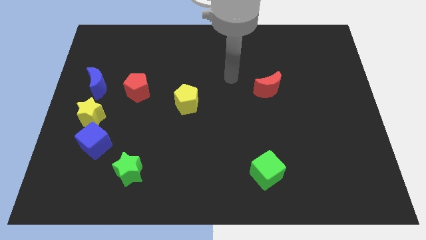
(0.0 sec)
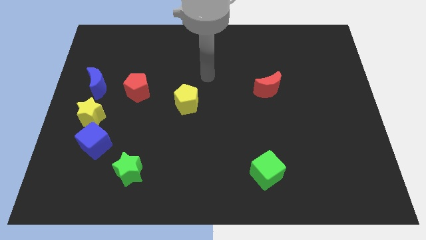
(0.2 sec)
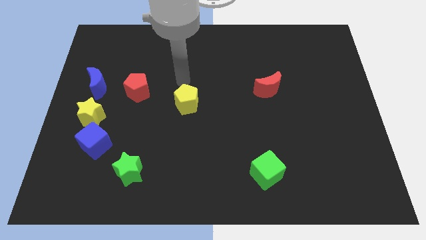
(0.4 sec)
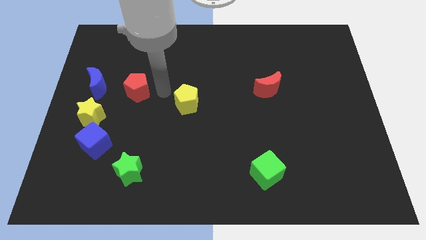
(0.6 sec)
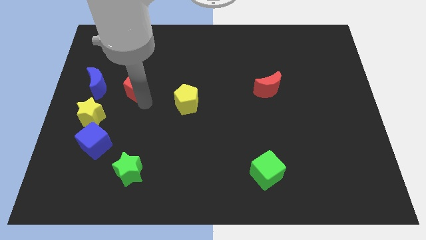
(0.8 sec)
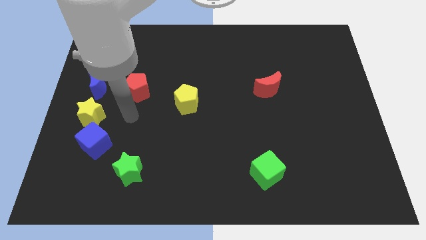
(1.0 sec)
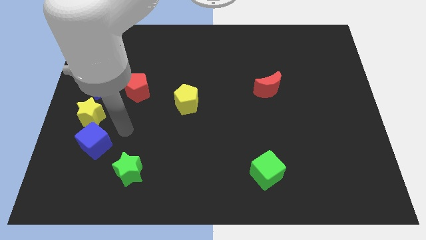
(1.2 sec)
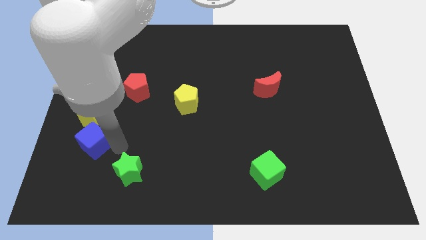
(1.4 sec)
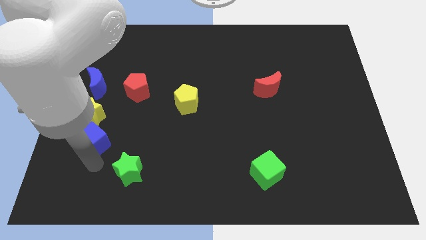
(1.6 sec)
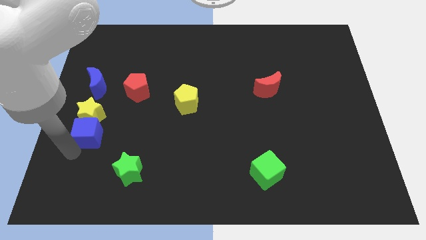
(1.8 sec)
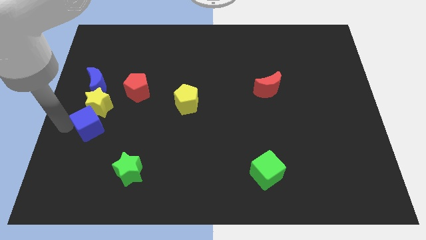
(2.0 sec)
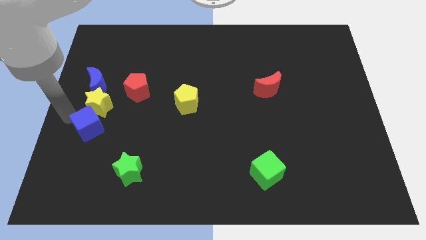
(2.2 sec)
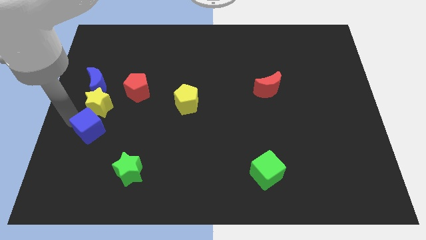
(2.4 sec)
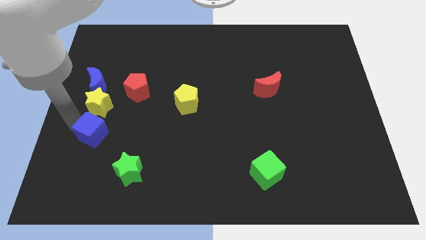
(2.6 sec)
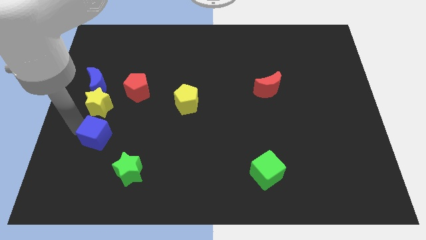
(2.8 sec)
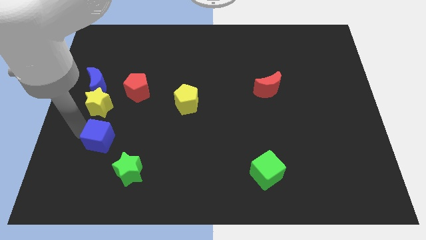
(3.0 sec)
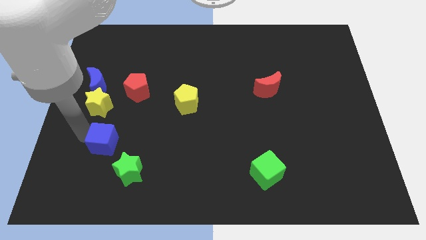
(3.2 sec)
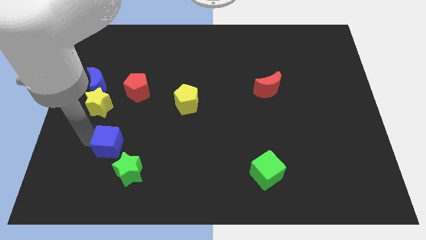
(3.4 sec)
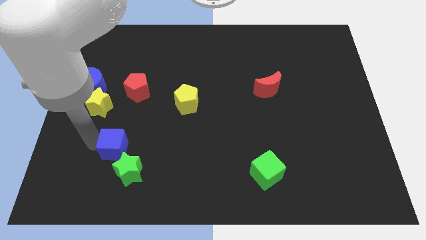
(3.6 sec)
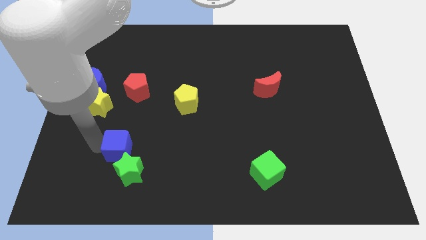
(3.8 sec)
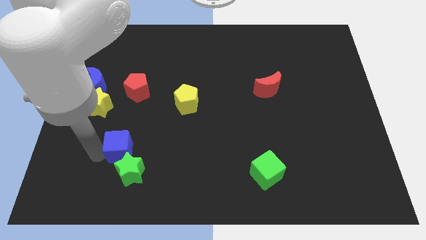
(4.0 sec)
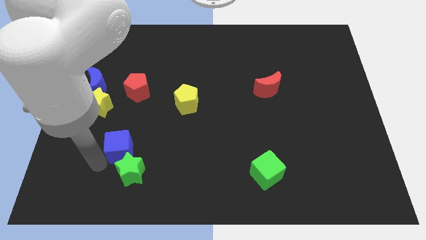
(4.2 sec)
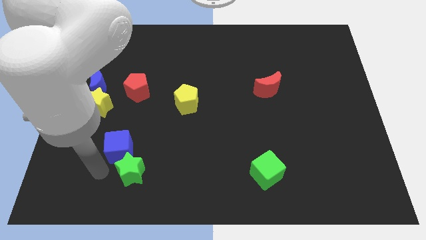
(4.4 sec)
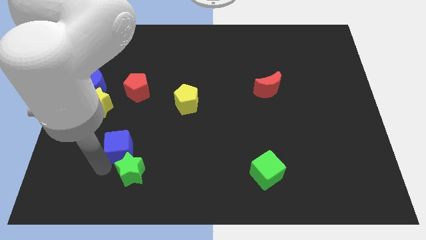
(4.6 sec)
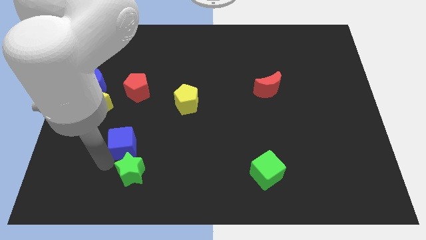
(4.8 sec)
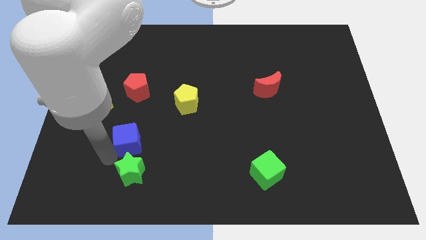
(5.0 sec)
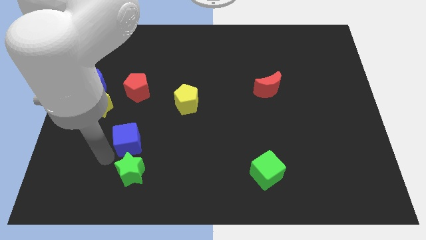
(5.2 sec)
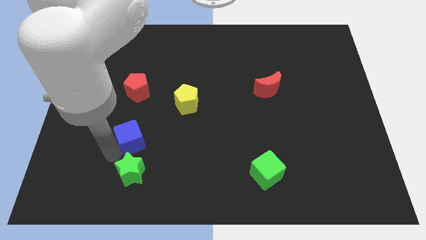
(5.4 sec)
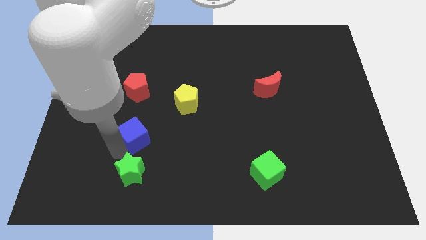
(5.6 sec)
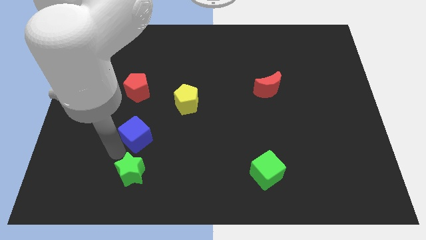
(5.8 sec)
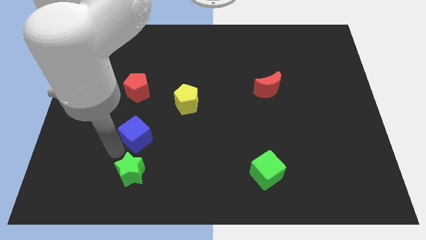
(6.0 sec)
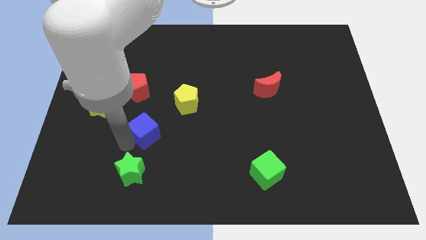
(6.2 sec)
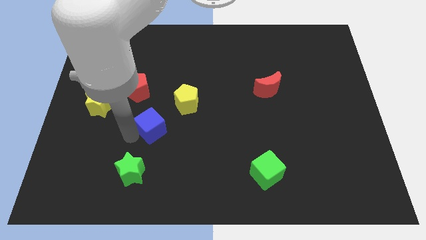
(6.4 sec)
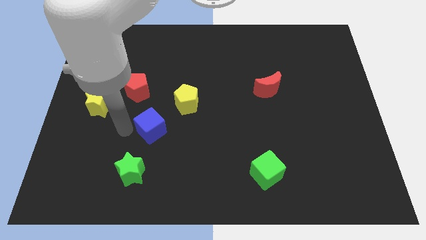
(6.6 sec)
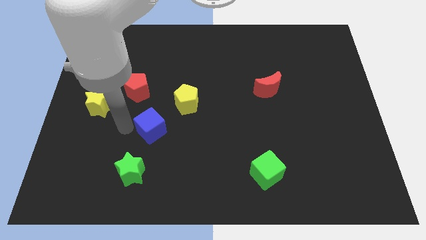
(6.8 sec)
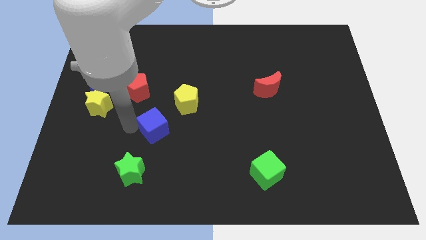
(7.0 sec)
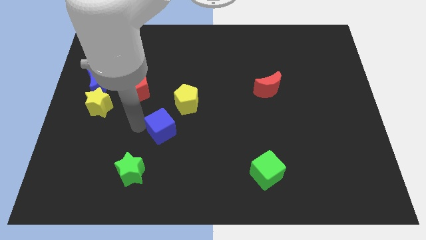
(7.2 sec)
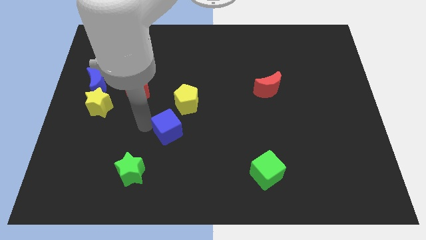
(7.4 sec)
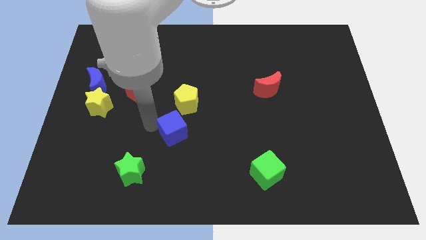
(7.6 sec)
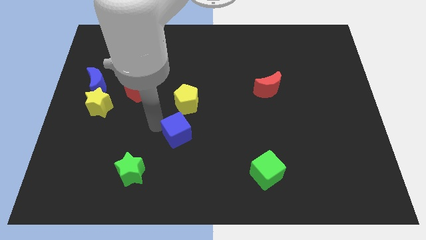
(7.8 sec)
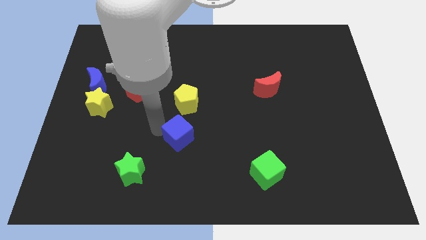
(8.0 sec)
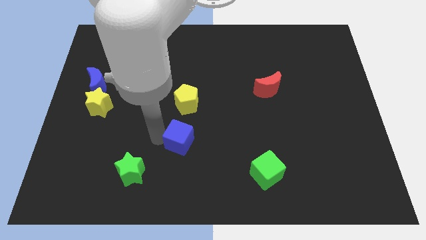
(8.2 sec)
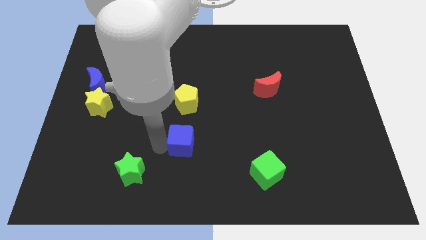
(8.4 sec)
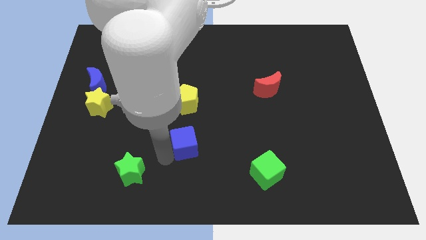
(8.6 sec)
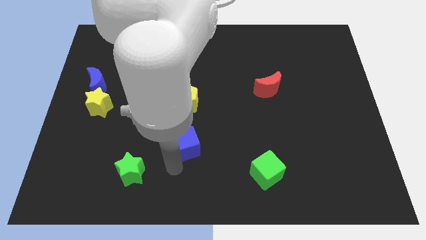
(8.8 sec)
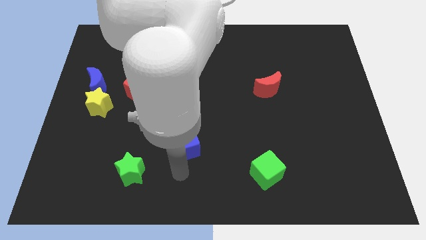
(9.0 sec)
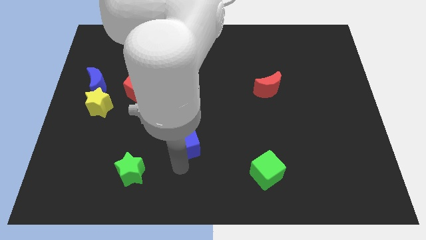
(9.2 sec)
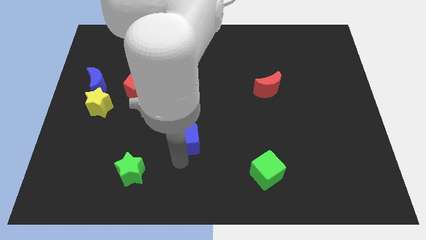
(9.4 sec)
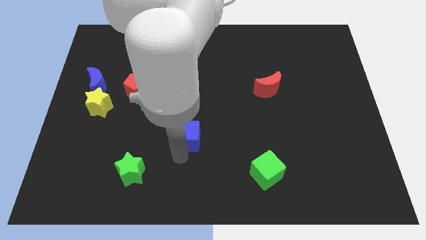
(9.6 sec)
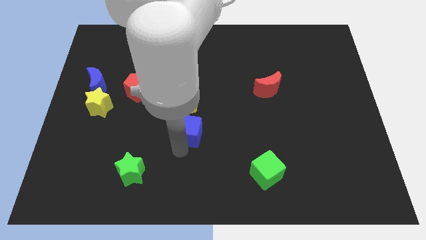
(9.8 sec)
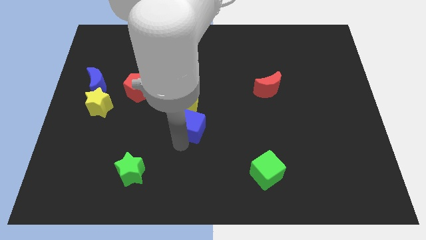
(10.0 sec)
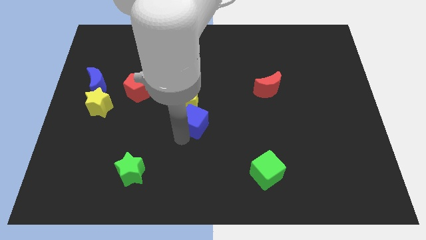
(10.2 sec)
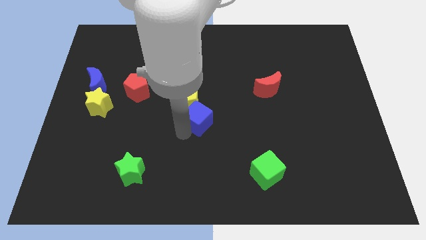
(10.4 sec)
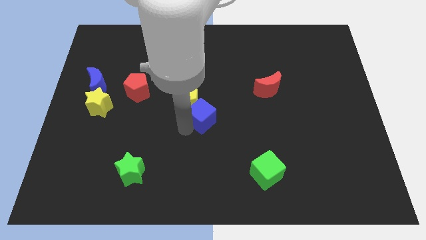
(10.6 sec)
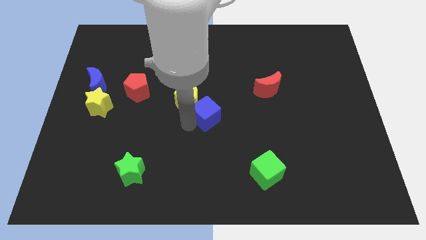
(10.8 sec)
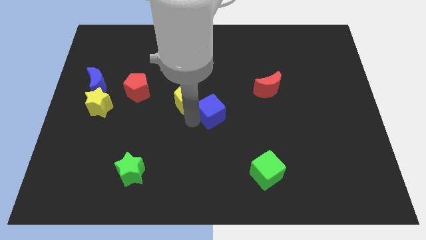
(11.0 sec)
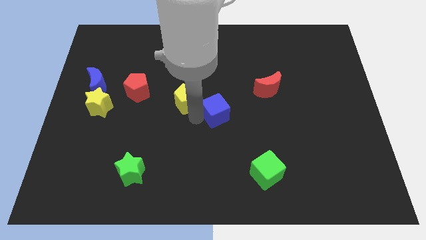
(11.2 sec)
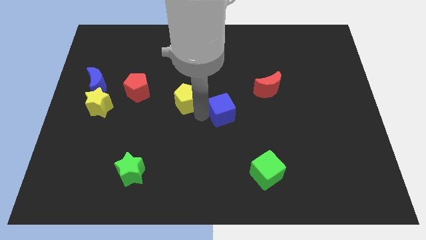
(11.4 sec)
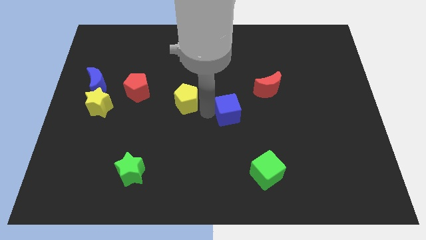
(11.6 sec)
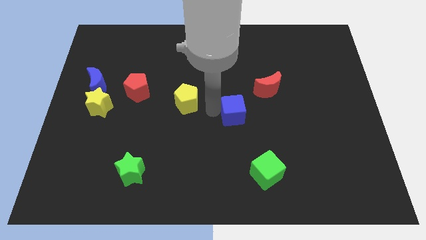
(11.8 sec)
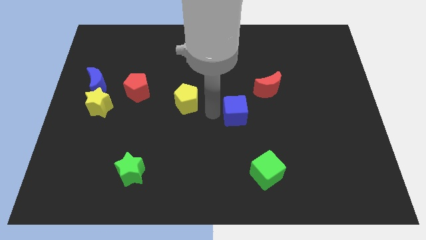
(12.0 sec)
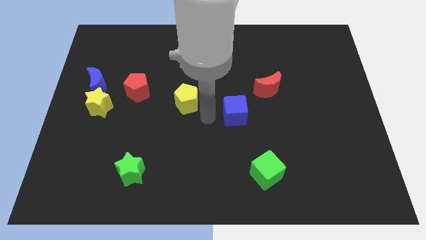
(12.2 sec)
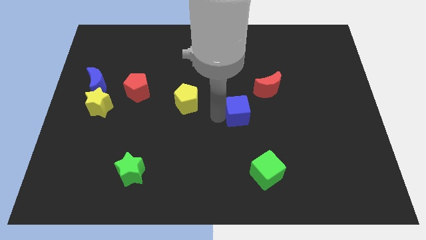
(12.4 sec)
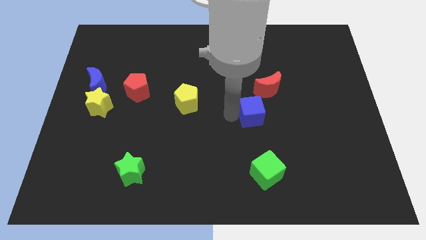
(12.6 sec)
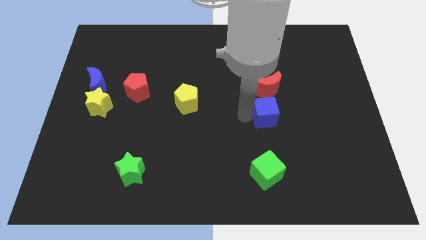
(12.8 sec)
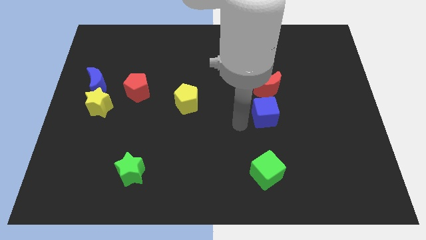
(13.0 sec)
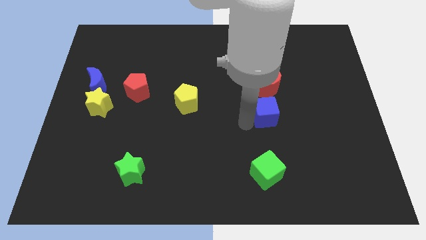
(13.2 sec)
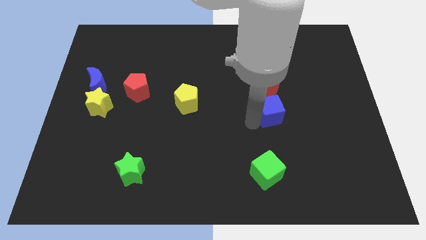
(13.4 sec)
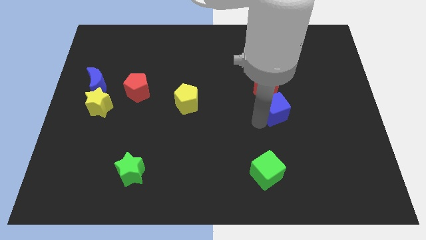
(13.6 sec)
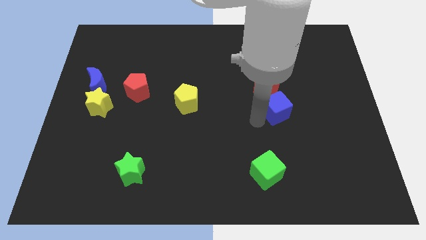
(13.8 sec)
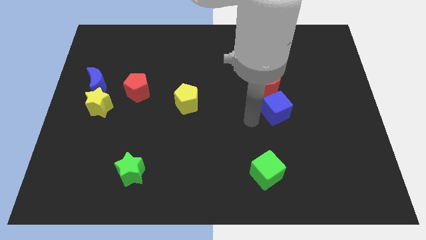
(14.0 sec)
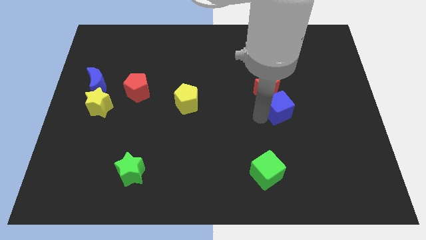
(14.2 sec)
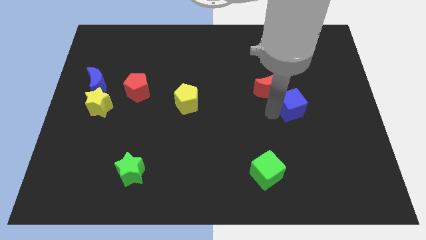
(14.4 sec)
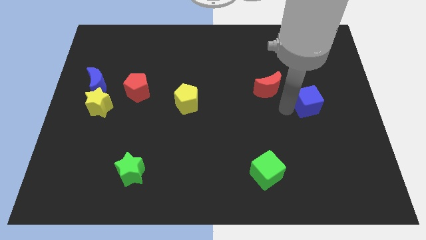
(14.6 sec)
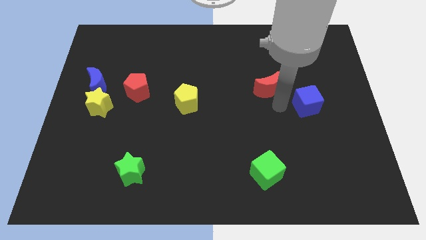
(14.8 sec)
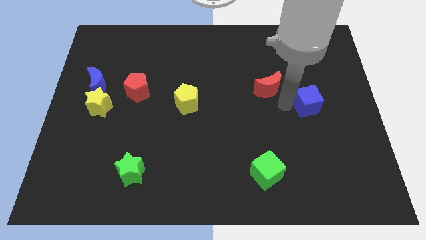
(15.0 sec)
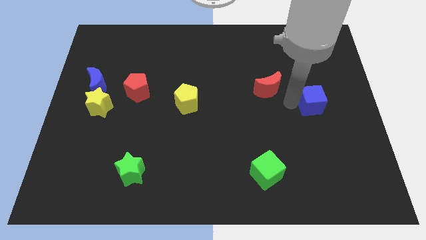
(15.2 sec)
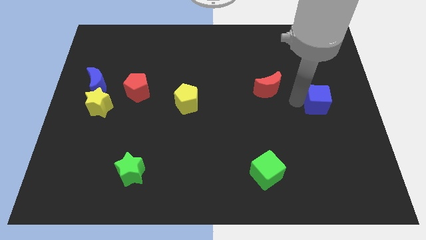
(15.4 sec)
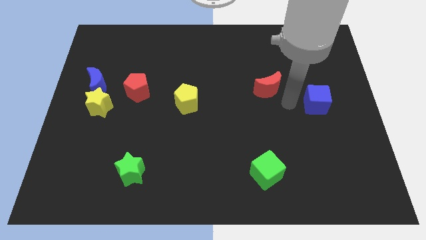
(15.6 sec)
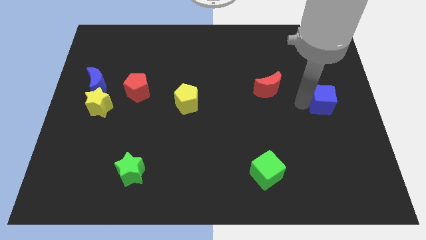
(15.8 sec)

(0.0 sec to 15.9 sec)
slide the blue cube to the center right
